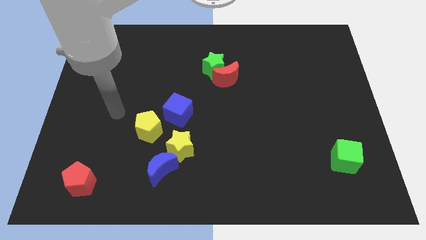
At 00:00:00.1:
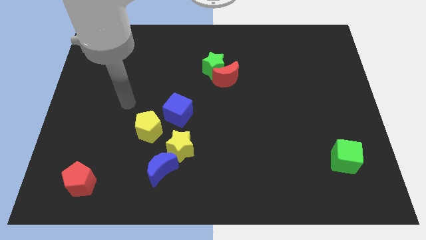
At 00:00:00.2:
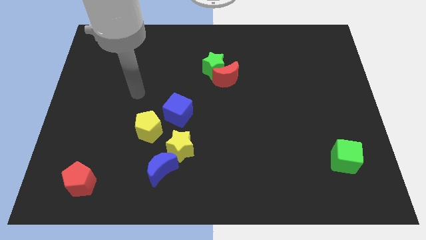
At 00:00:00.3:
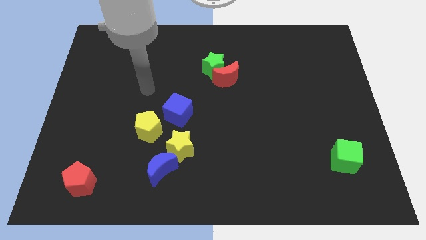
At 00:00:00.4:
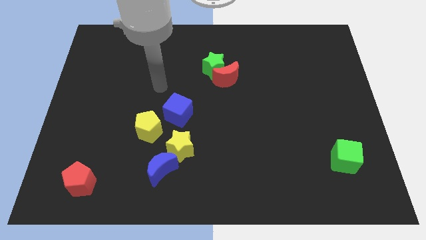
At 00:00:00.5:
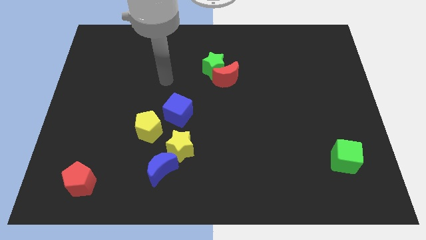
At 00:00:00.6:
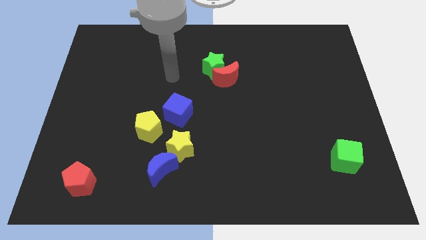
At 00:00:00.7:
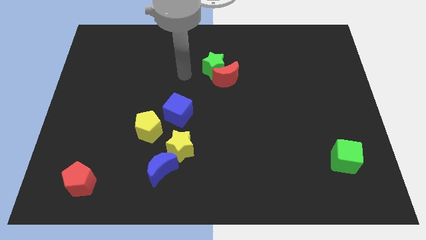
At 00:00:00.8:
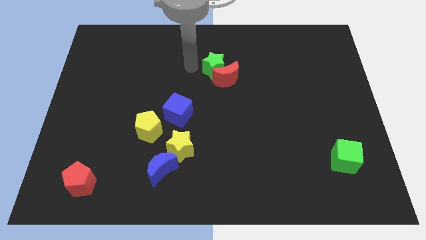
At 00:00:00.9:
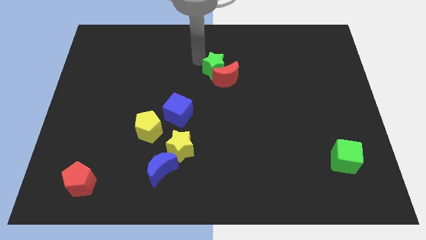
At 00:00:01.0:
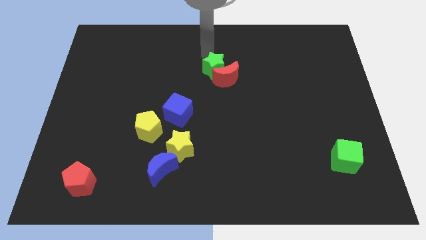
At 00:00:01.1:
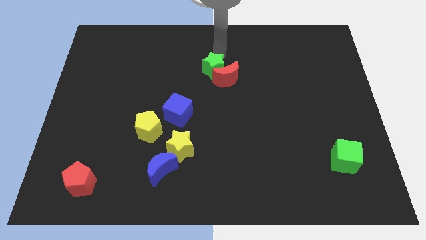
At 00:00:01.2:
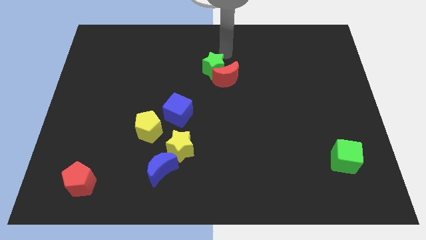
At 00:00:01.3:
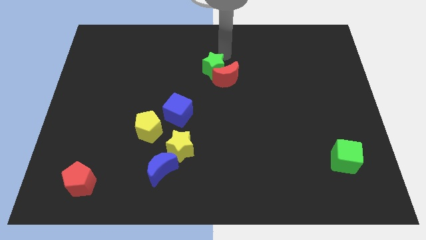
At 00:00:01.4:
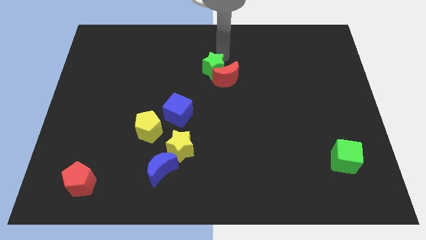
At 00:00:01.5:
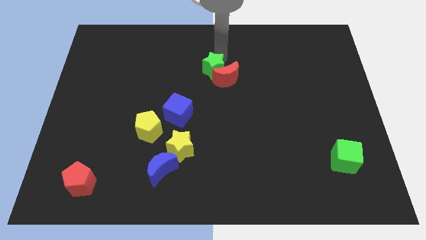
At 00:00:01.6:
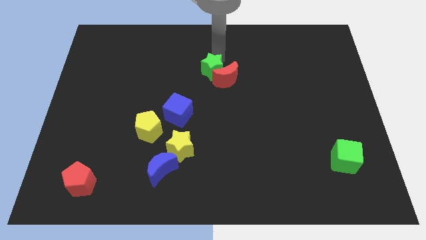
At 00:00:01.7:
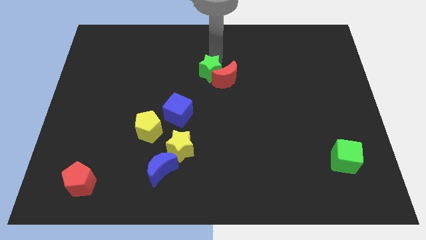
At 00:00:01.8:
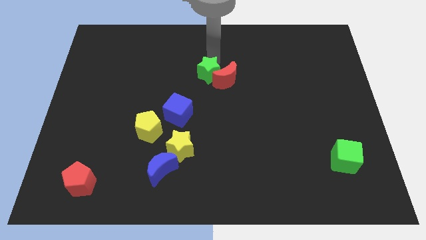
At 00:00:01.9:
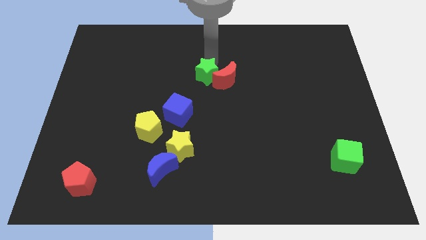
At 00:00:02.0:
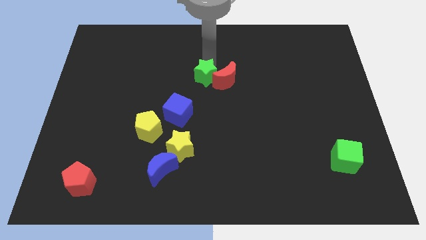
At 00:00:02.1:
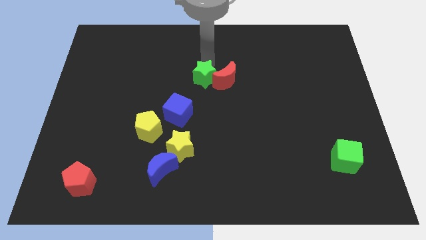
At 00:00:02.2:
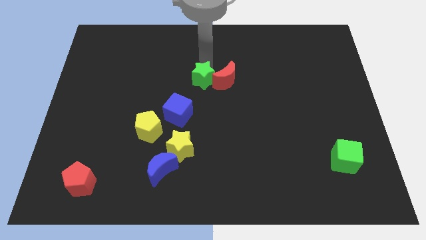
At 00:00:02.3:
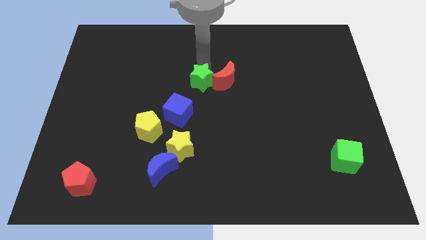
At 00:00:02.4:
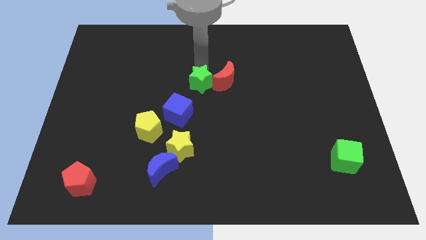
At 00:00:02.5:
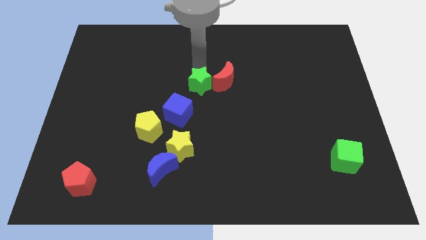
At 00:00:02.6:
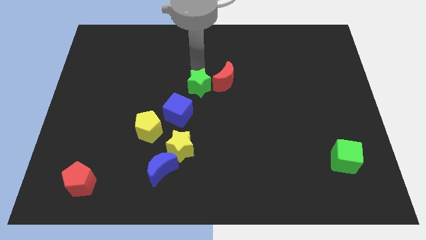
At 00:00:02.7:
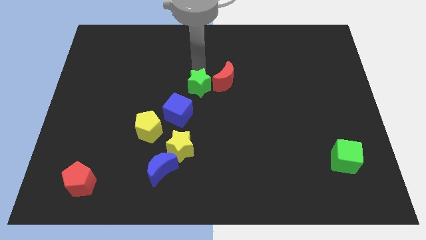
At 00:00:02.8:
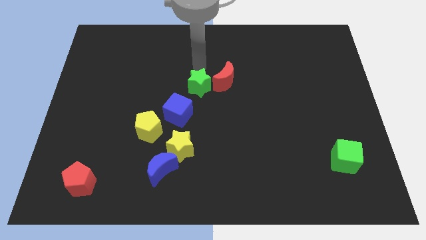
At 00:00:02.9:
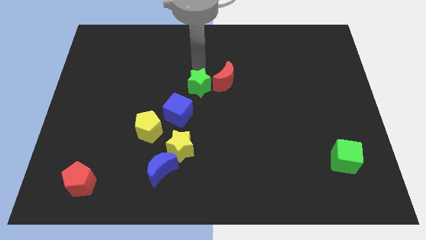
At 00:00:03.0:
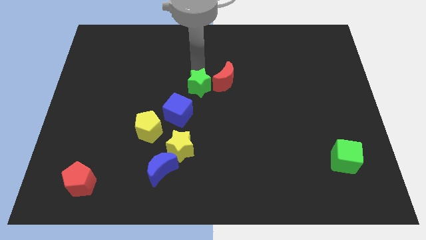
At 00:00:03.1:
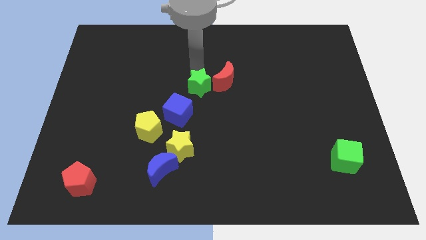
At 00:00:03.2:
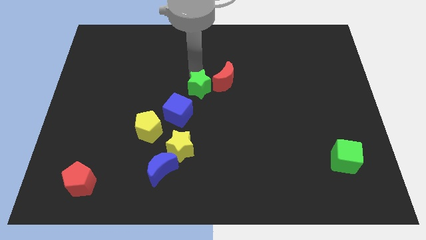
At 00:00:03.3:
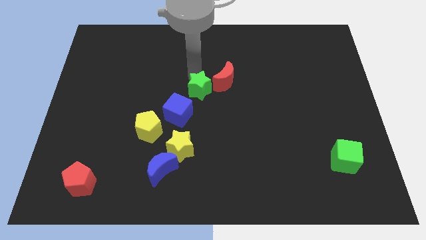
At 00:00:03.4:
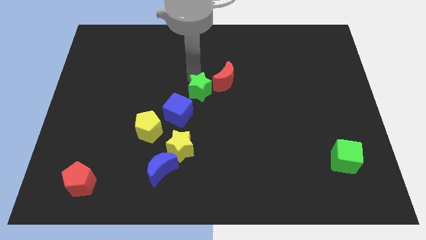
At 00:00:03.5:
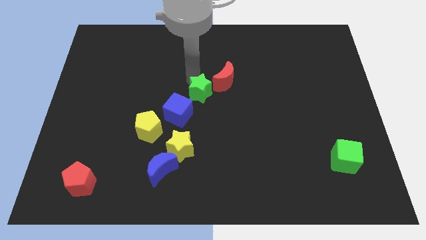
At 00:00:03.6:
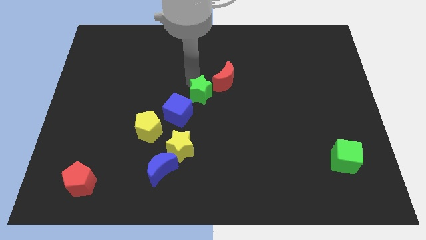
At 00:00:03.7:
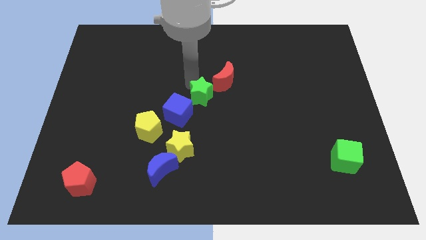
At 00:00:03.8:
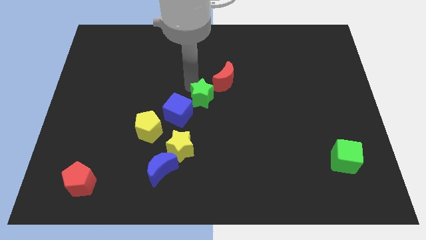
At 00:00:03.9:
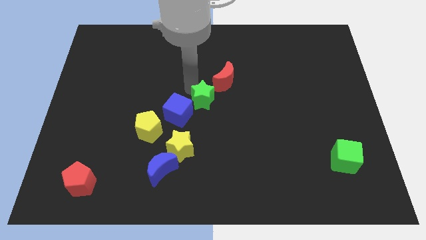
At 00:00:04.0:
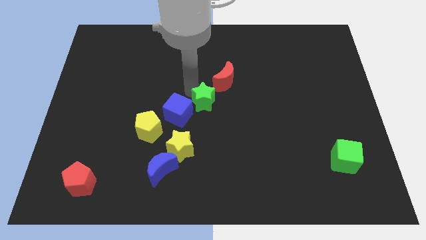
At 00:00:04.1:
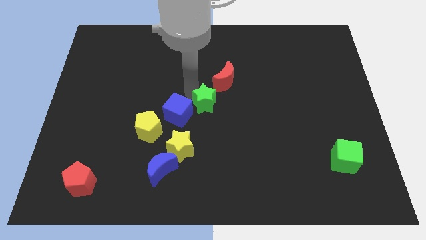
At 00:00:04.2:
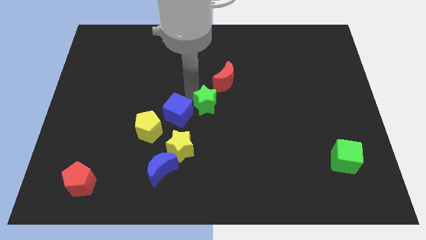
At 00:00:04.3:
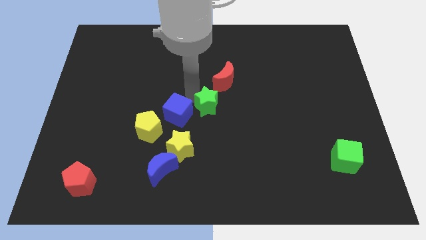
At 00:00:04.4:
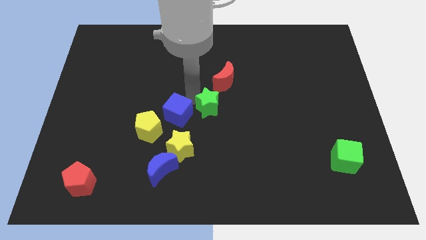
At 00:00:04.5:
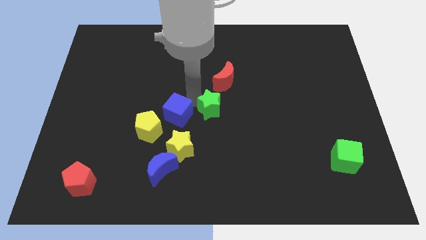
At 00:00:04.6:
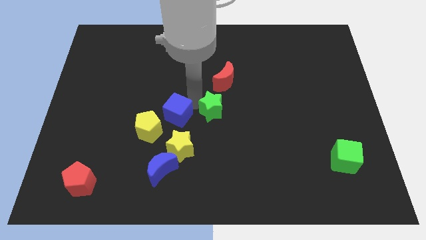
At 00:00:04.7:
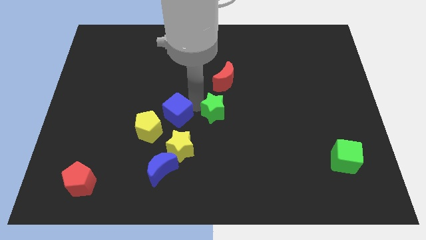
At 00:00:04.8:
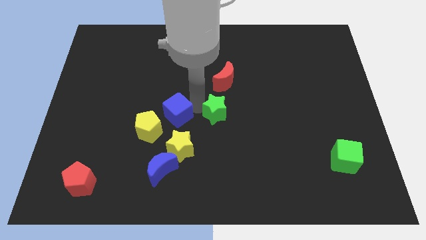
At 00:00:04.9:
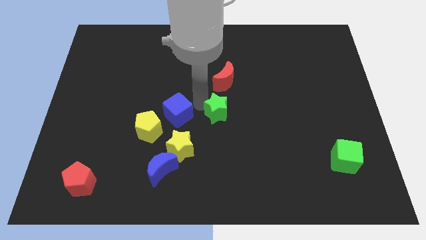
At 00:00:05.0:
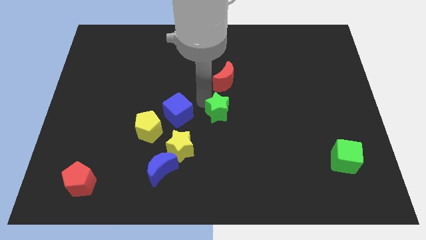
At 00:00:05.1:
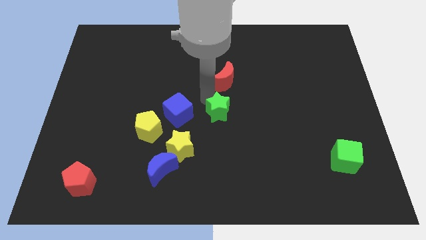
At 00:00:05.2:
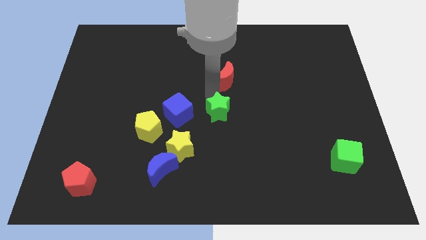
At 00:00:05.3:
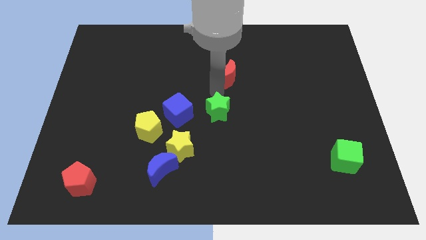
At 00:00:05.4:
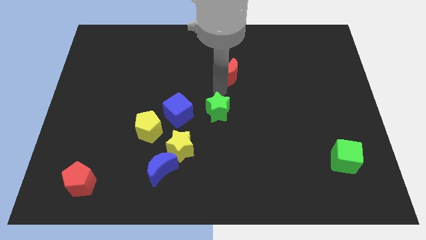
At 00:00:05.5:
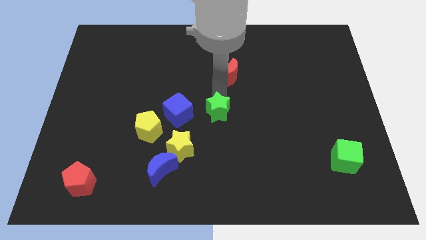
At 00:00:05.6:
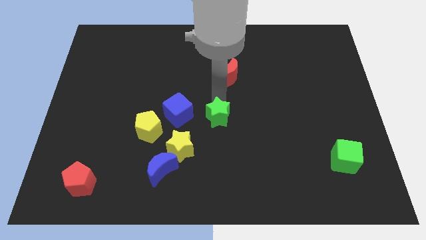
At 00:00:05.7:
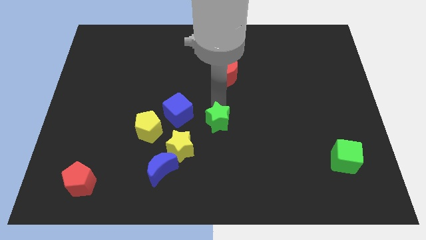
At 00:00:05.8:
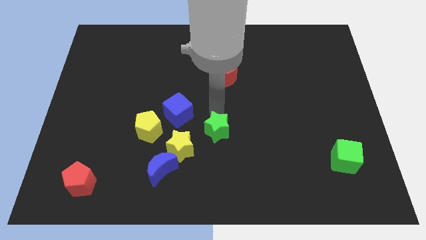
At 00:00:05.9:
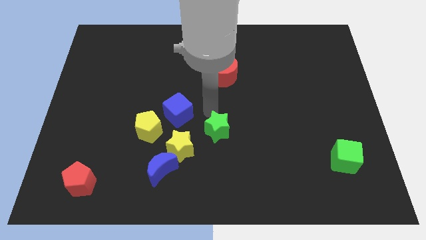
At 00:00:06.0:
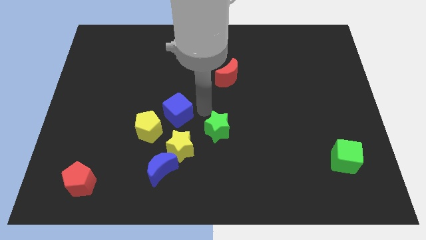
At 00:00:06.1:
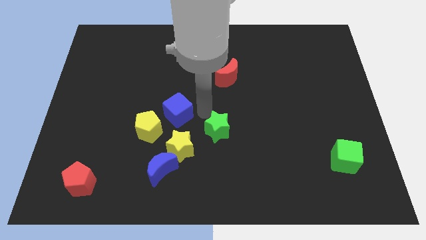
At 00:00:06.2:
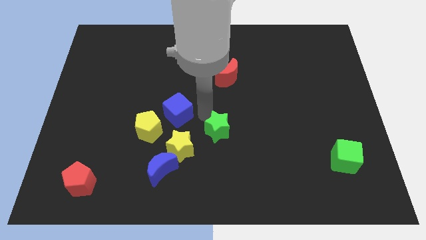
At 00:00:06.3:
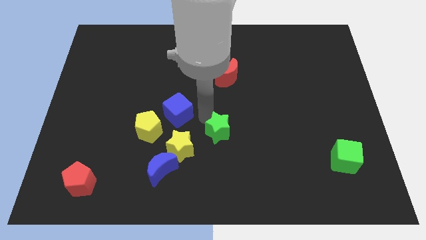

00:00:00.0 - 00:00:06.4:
move the green star right of the yellow star
